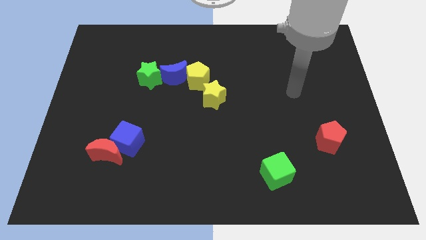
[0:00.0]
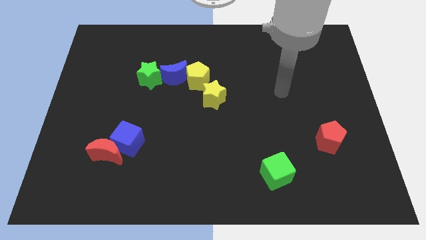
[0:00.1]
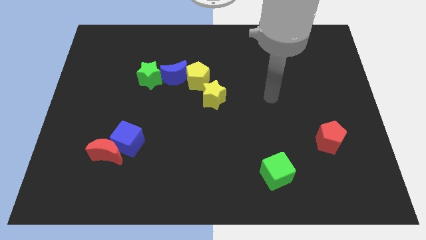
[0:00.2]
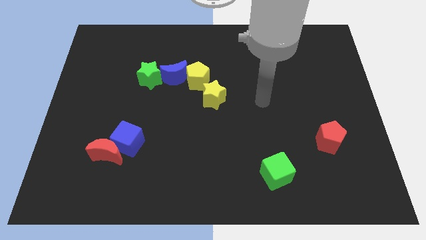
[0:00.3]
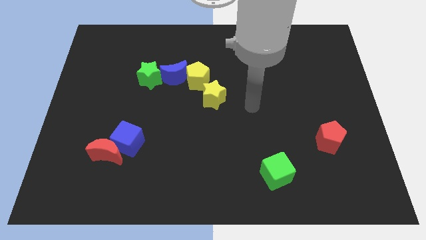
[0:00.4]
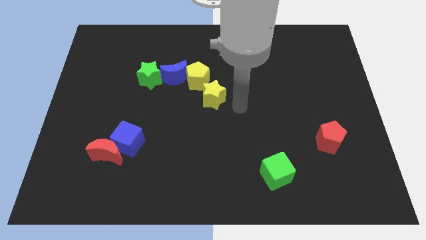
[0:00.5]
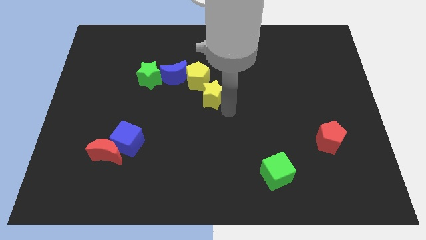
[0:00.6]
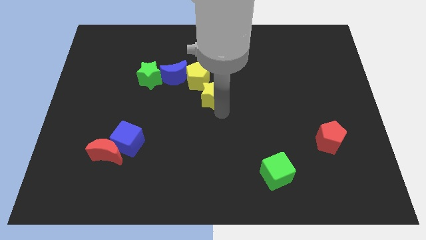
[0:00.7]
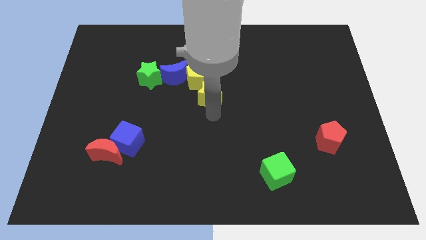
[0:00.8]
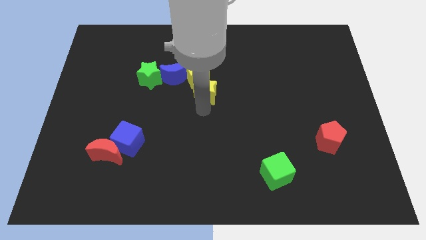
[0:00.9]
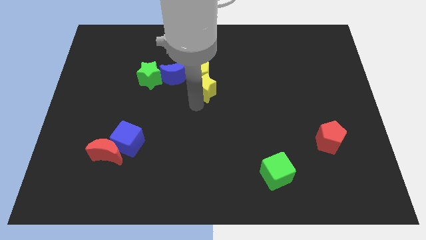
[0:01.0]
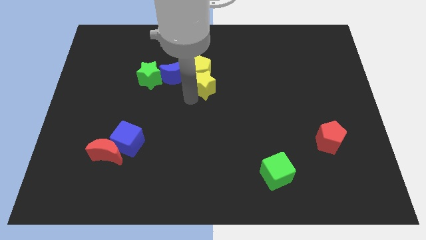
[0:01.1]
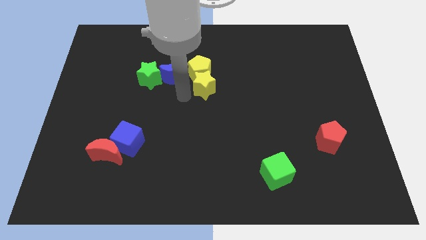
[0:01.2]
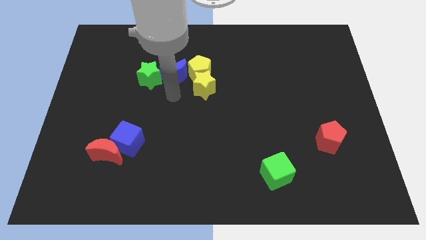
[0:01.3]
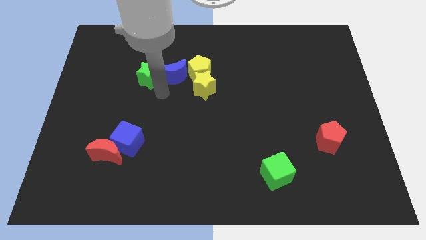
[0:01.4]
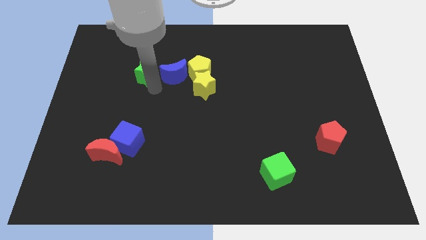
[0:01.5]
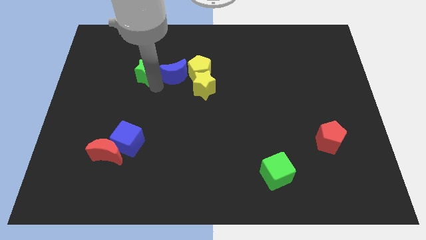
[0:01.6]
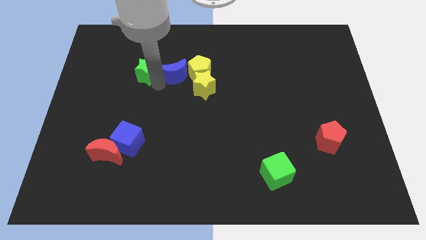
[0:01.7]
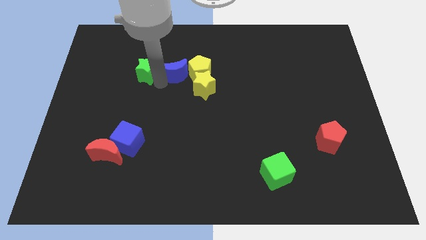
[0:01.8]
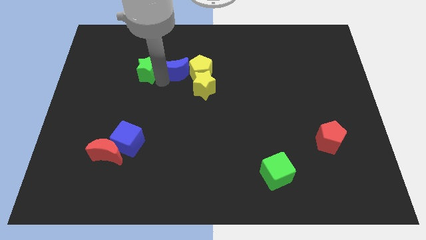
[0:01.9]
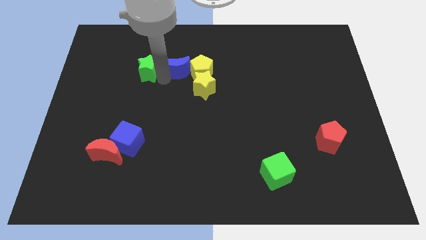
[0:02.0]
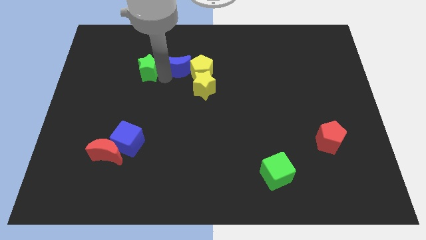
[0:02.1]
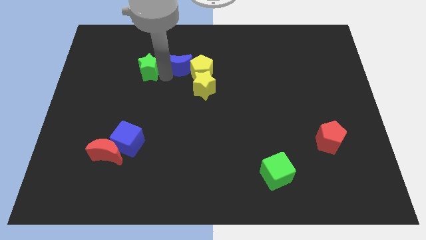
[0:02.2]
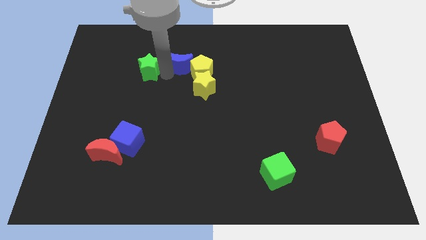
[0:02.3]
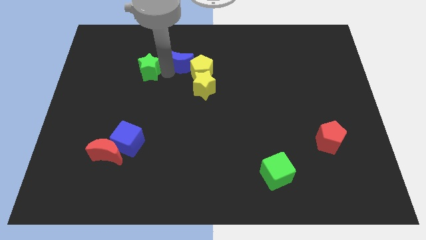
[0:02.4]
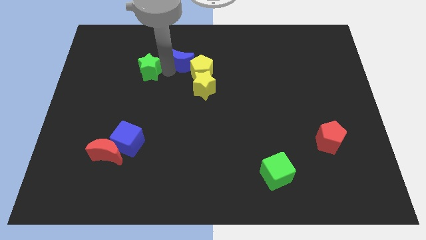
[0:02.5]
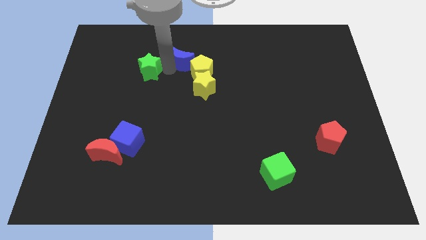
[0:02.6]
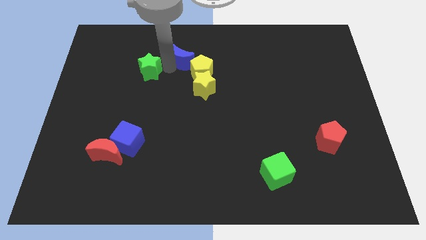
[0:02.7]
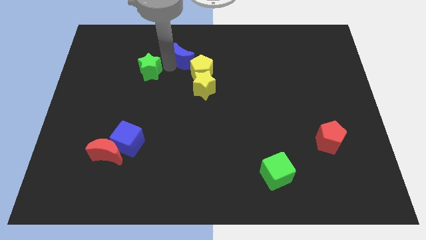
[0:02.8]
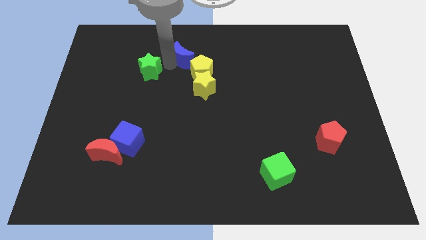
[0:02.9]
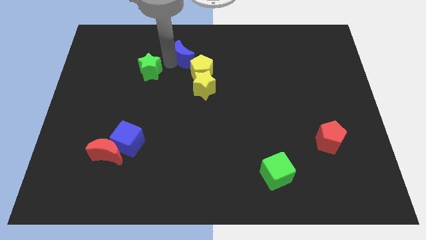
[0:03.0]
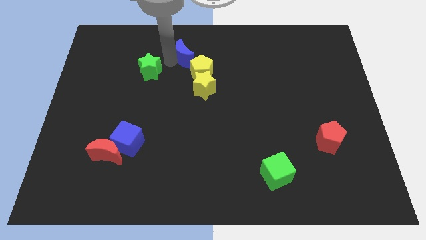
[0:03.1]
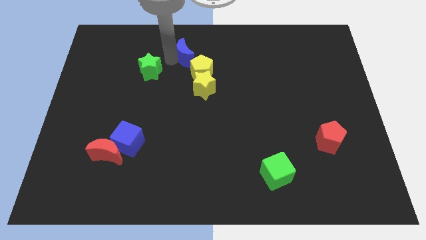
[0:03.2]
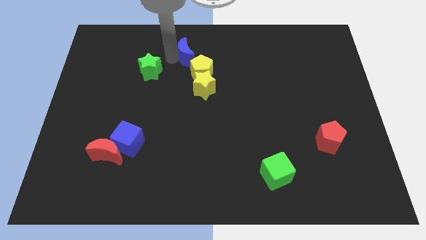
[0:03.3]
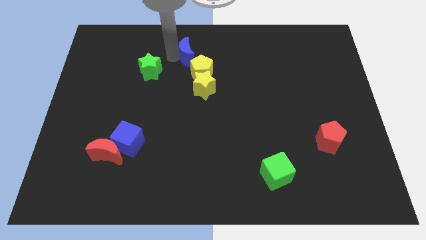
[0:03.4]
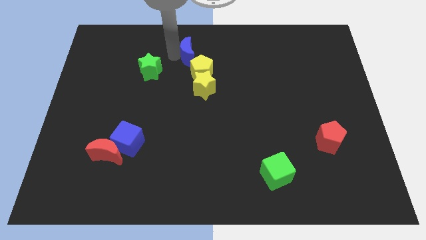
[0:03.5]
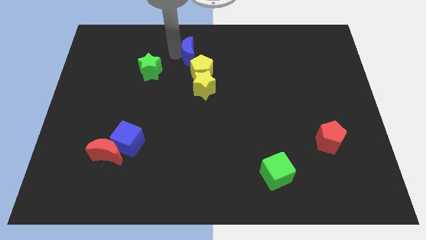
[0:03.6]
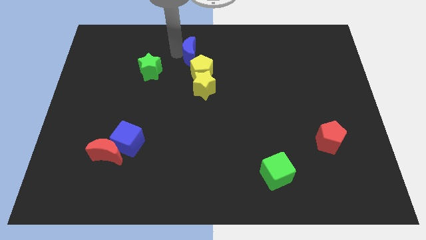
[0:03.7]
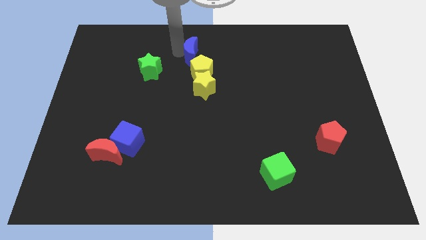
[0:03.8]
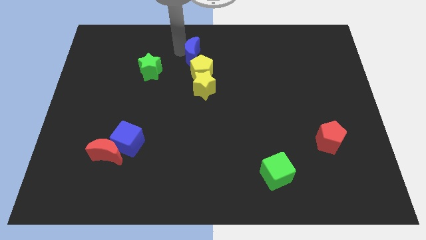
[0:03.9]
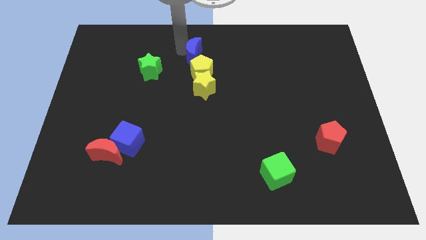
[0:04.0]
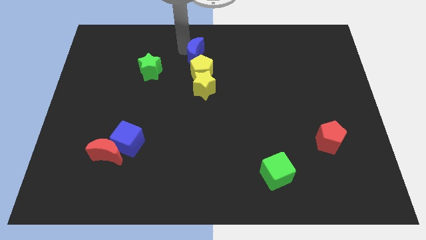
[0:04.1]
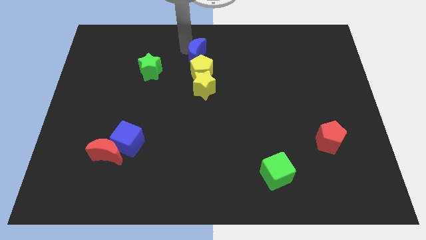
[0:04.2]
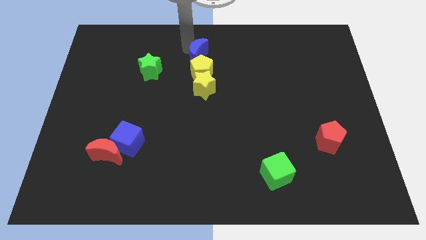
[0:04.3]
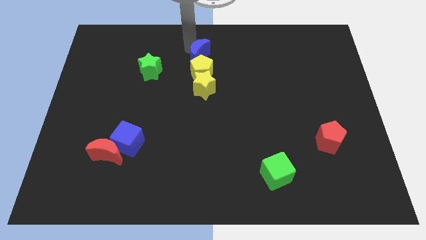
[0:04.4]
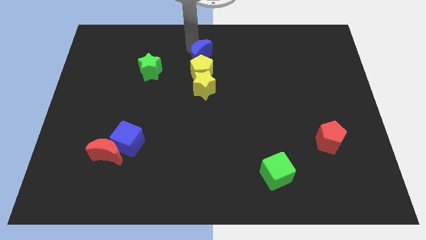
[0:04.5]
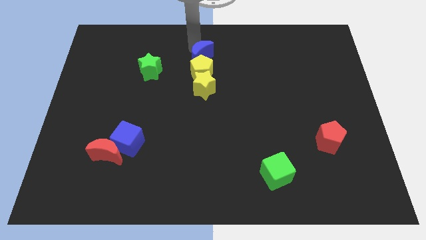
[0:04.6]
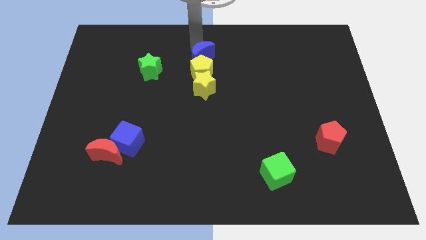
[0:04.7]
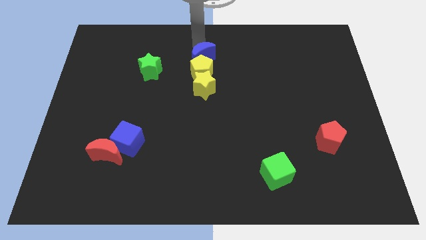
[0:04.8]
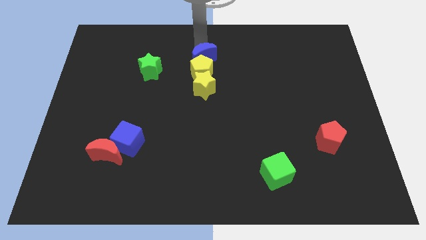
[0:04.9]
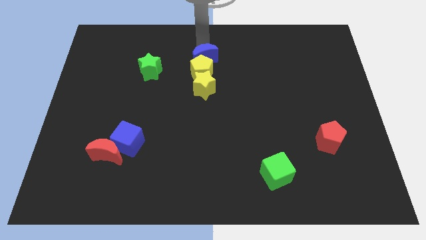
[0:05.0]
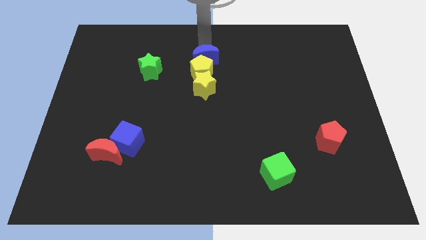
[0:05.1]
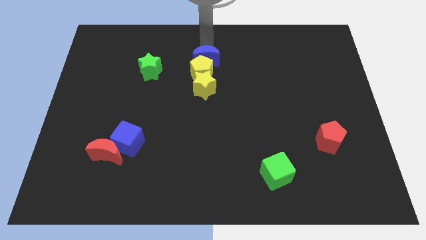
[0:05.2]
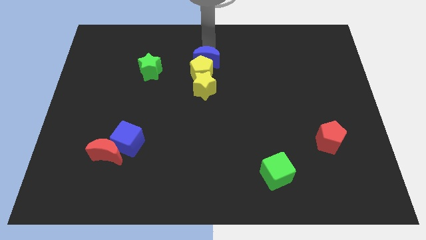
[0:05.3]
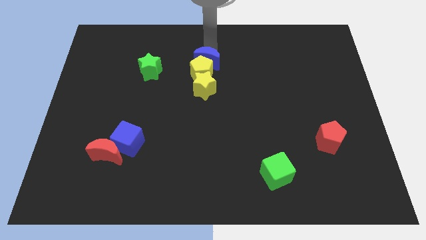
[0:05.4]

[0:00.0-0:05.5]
move the blue moon somewhat to the right

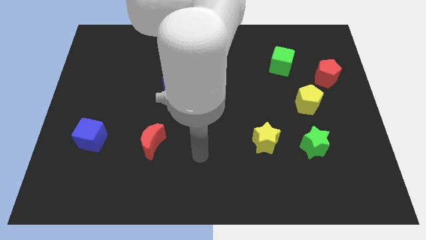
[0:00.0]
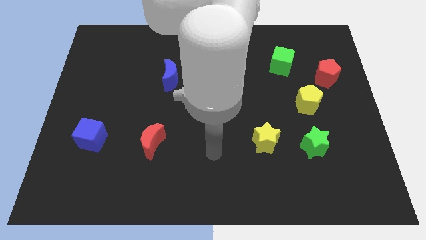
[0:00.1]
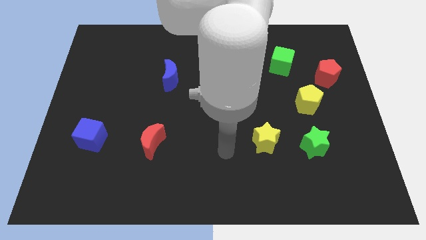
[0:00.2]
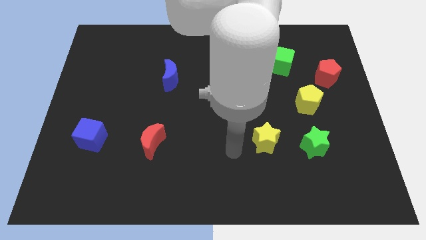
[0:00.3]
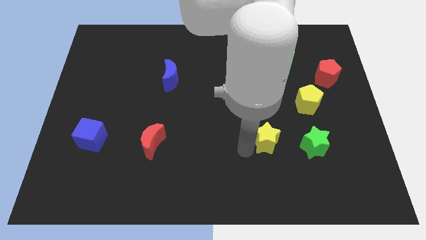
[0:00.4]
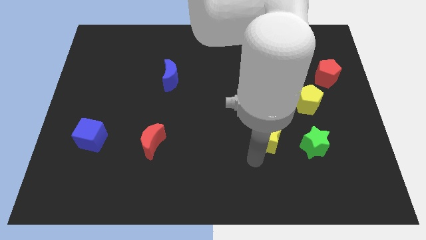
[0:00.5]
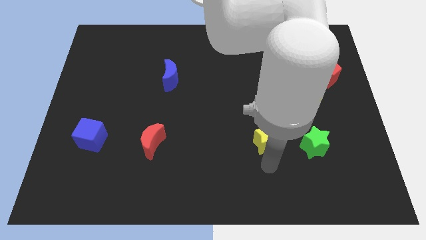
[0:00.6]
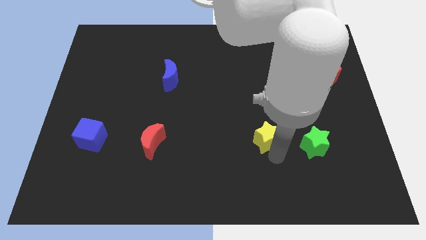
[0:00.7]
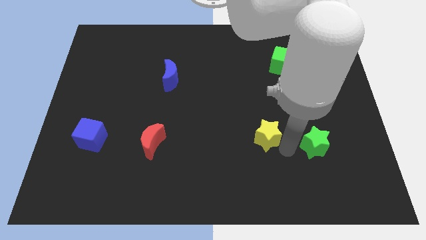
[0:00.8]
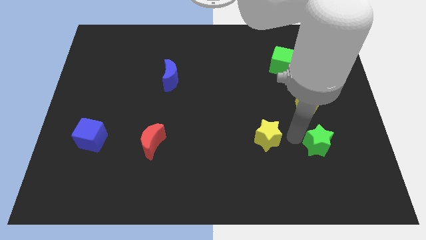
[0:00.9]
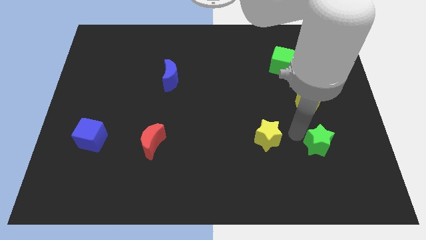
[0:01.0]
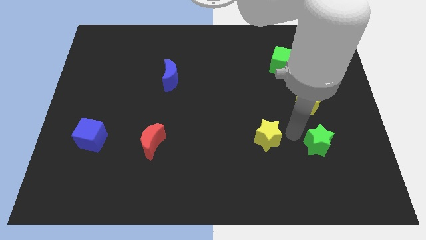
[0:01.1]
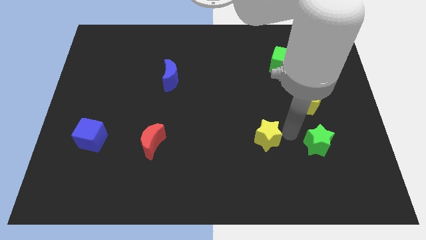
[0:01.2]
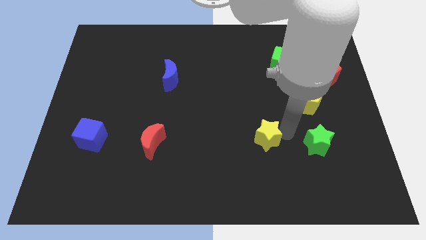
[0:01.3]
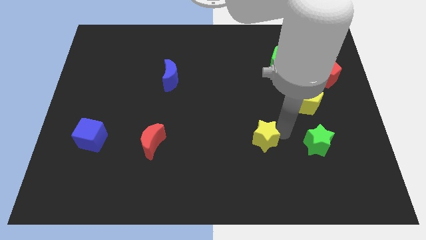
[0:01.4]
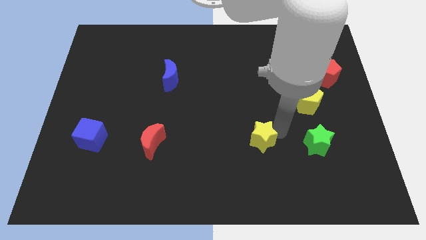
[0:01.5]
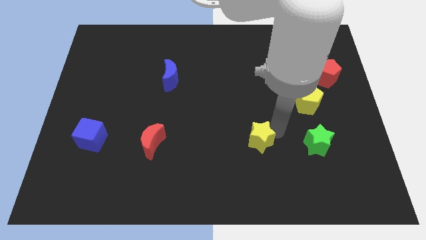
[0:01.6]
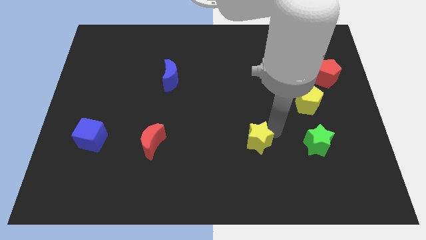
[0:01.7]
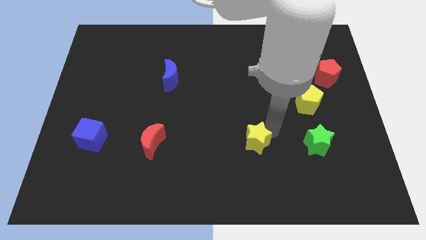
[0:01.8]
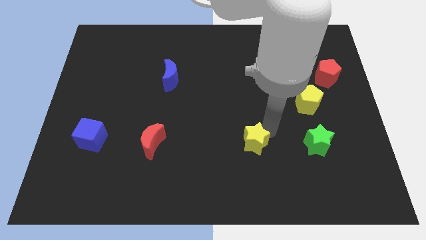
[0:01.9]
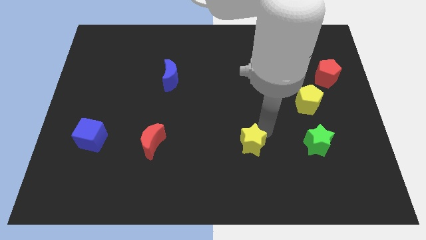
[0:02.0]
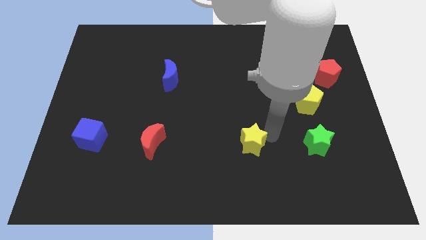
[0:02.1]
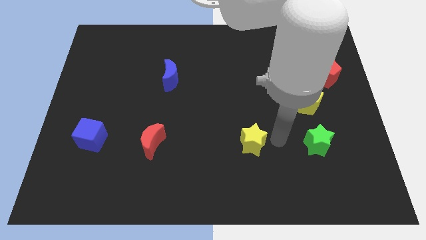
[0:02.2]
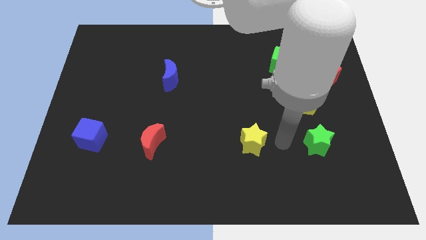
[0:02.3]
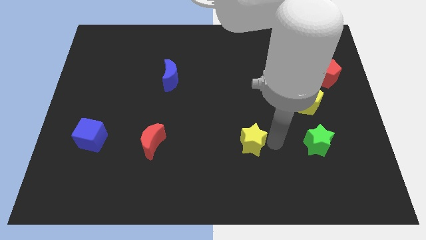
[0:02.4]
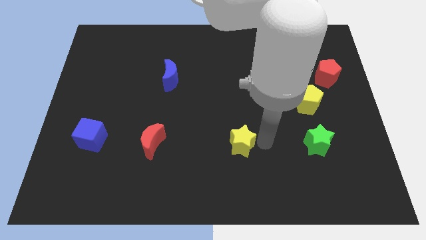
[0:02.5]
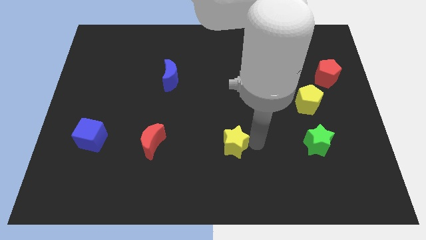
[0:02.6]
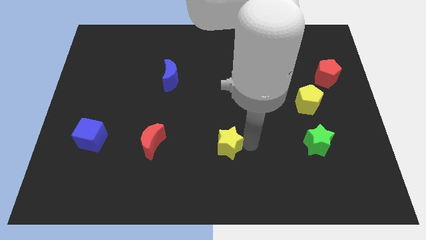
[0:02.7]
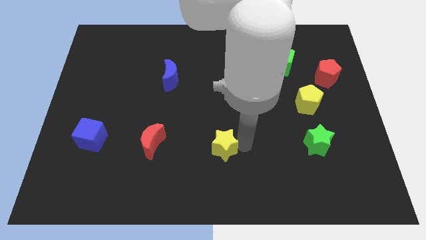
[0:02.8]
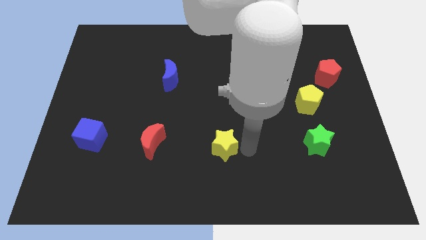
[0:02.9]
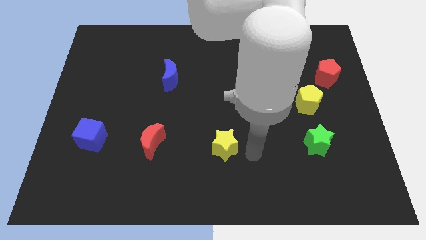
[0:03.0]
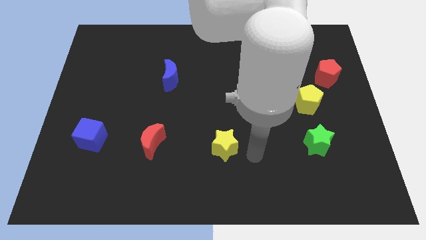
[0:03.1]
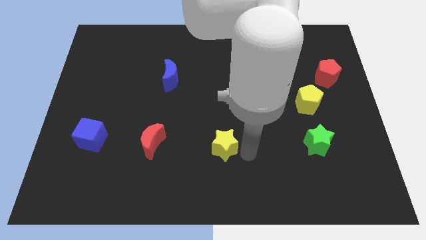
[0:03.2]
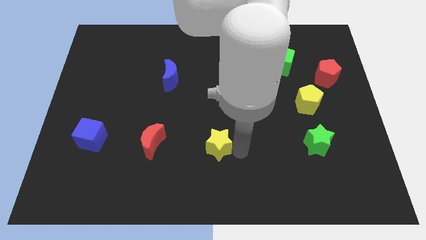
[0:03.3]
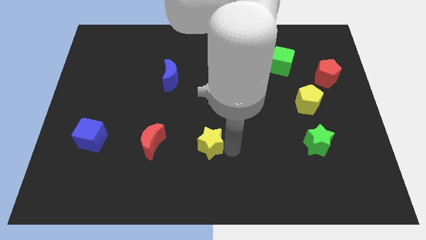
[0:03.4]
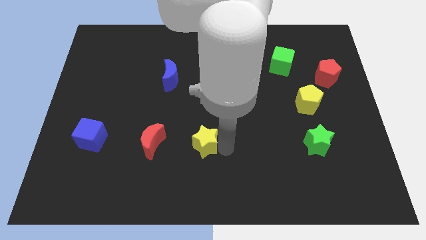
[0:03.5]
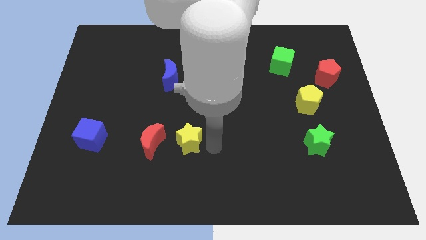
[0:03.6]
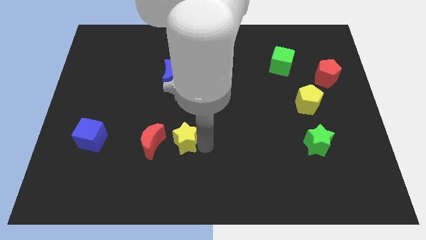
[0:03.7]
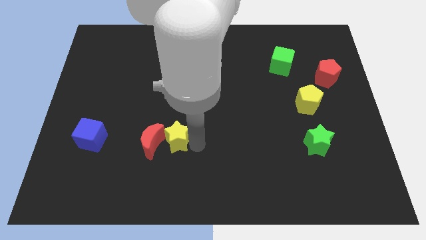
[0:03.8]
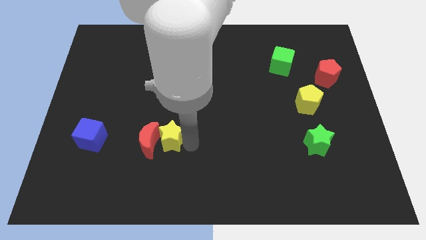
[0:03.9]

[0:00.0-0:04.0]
push the yellow star left
